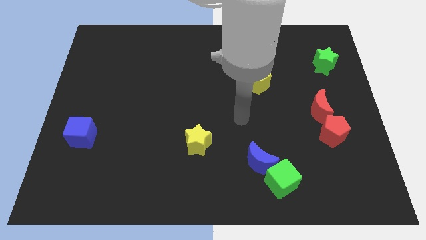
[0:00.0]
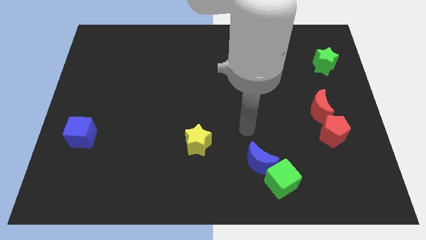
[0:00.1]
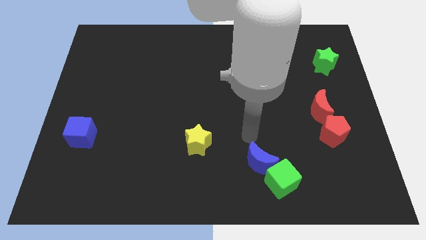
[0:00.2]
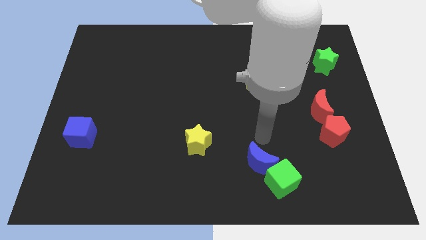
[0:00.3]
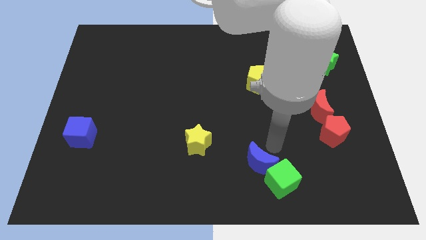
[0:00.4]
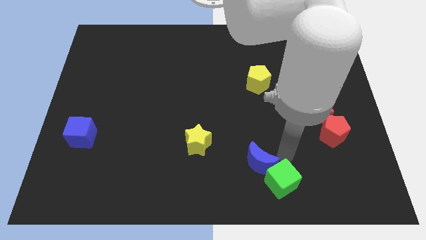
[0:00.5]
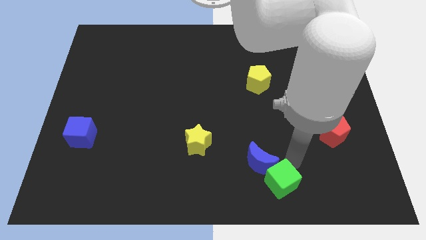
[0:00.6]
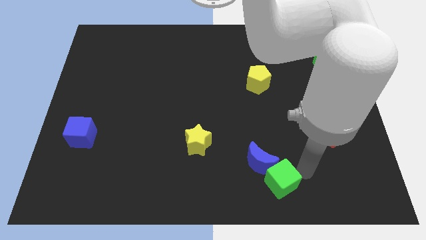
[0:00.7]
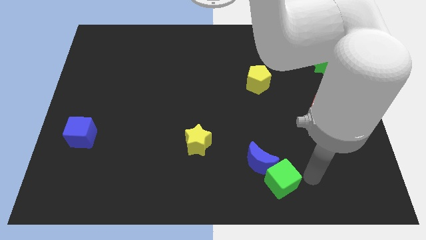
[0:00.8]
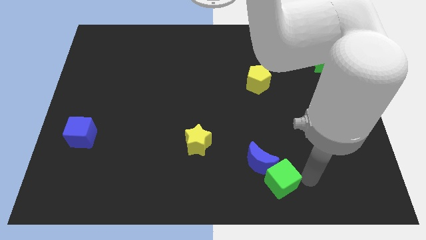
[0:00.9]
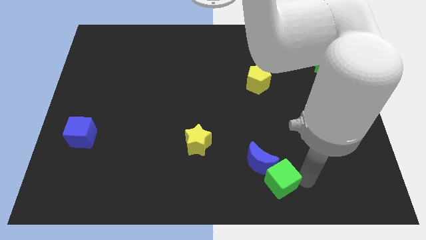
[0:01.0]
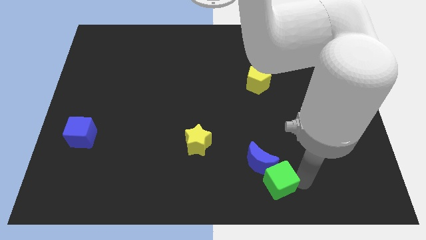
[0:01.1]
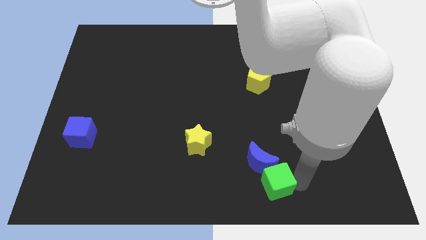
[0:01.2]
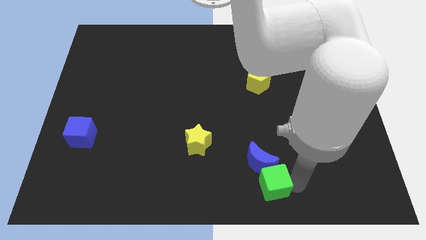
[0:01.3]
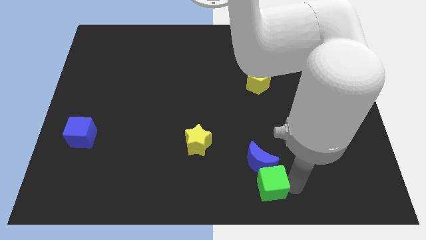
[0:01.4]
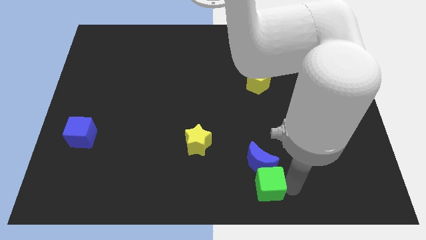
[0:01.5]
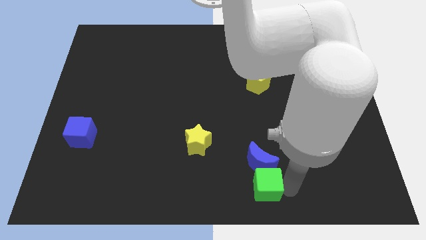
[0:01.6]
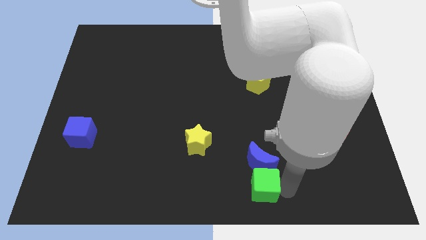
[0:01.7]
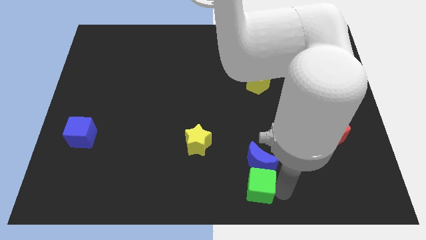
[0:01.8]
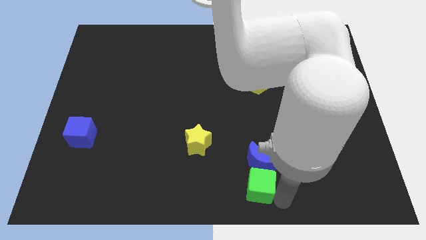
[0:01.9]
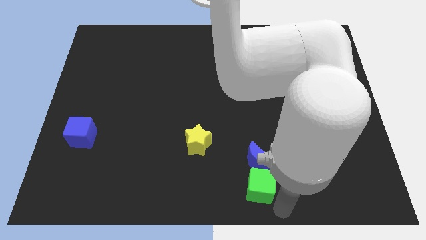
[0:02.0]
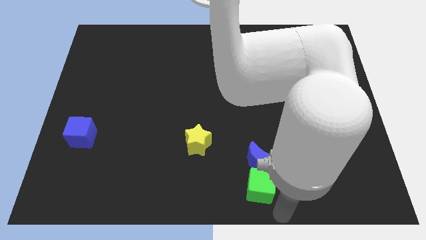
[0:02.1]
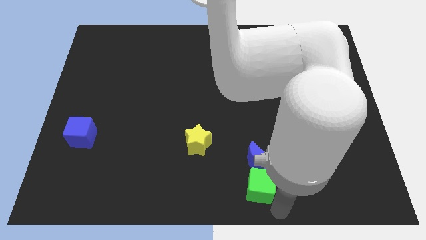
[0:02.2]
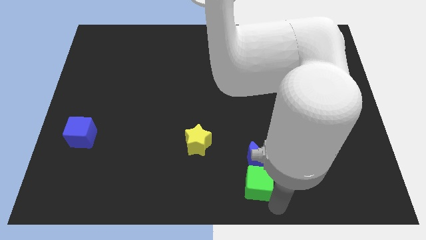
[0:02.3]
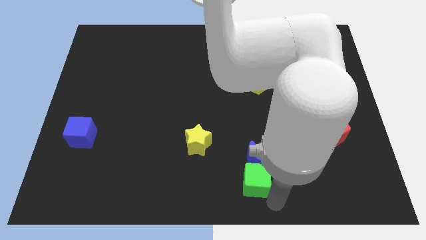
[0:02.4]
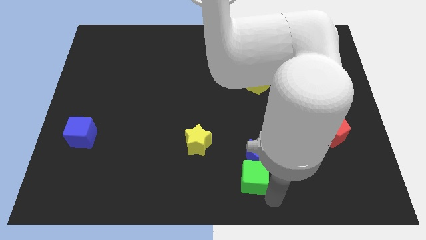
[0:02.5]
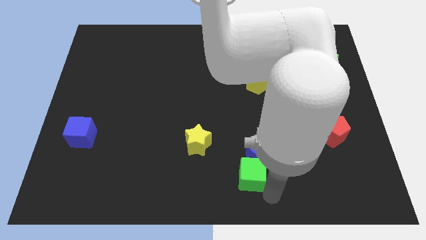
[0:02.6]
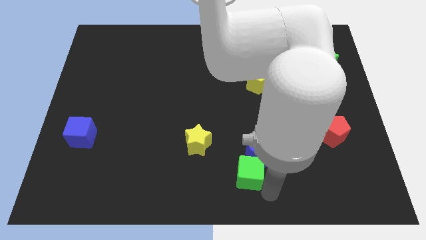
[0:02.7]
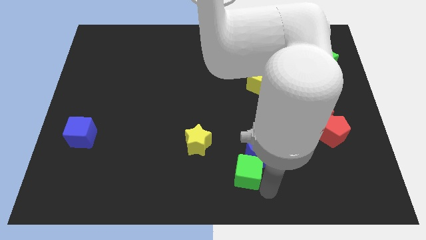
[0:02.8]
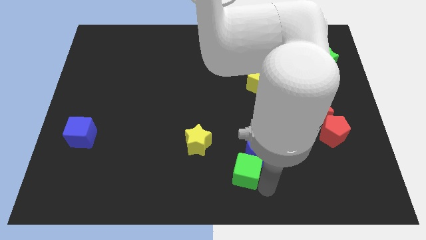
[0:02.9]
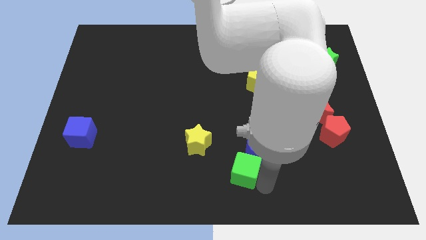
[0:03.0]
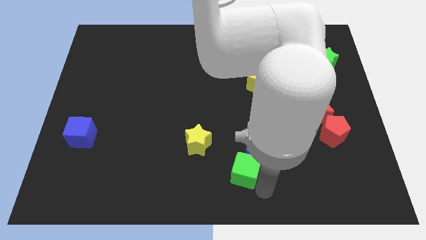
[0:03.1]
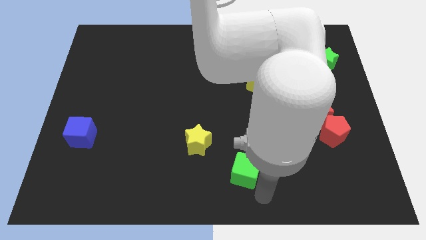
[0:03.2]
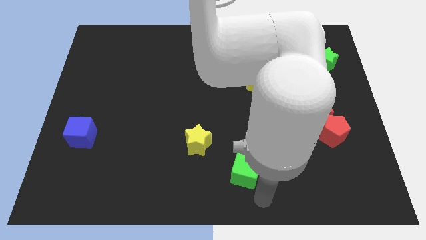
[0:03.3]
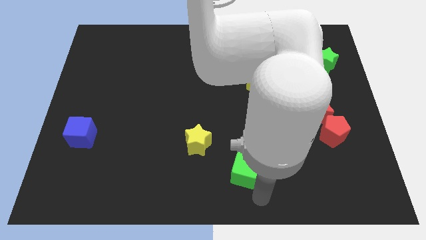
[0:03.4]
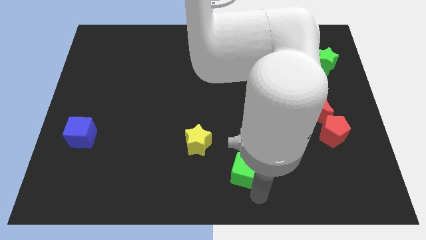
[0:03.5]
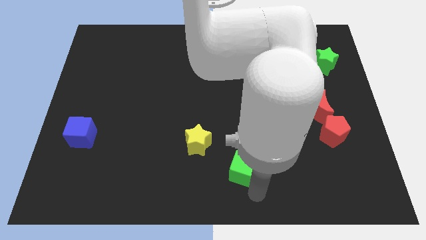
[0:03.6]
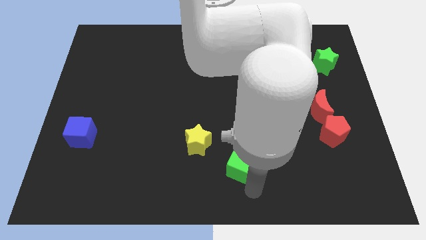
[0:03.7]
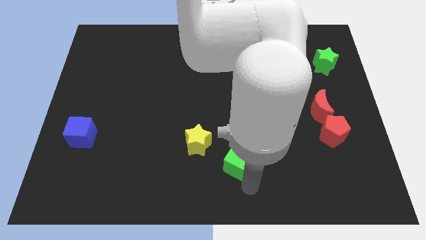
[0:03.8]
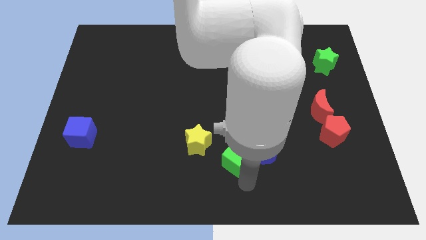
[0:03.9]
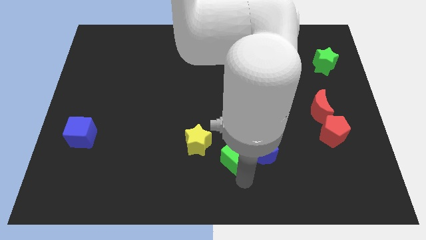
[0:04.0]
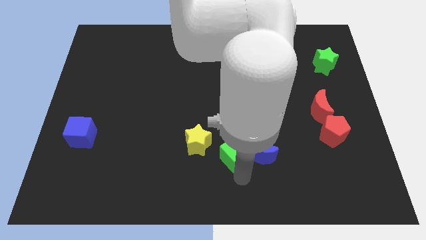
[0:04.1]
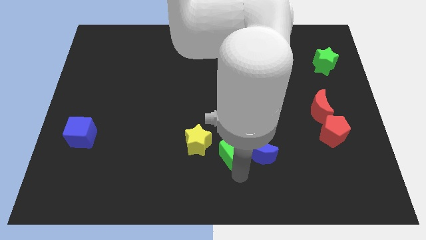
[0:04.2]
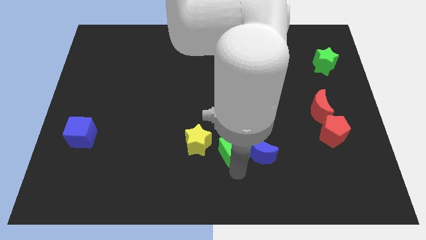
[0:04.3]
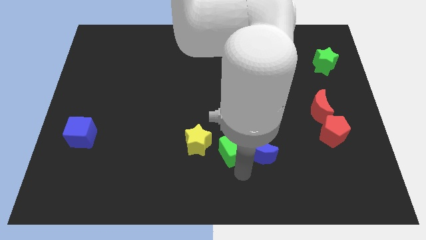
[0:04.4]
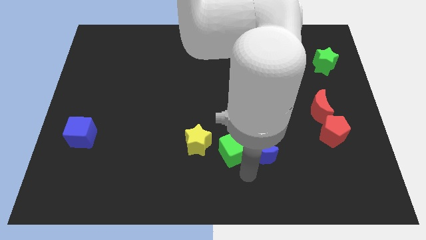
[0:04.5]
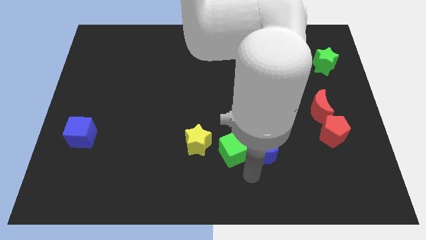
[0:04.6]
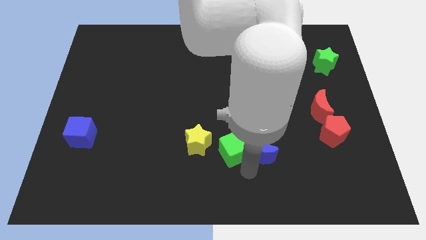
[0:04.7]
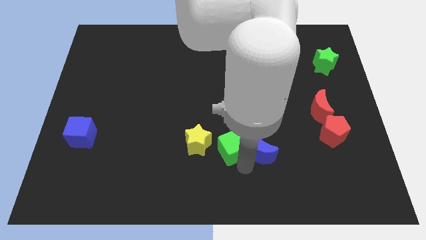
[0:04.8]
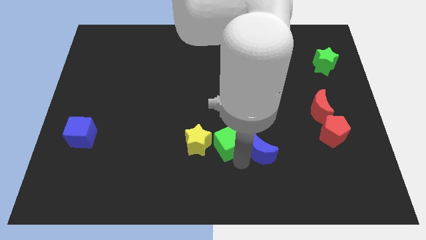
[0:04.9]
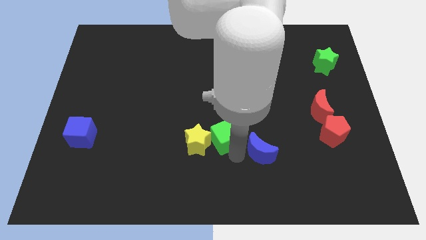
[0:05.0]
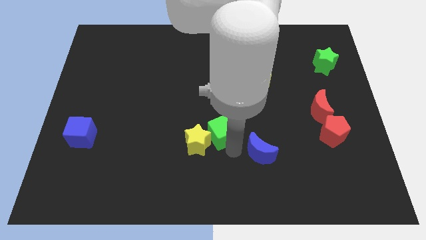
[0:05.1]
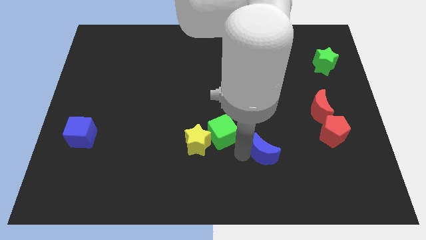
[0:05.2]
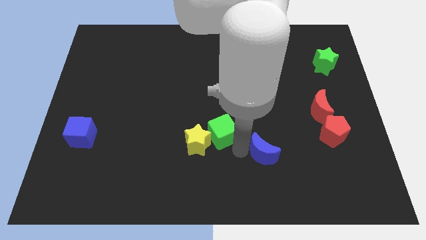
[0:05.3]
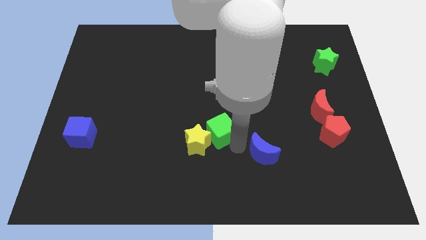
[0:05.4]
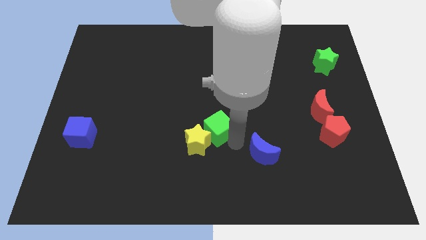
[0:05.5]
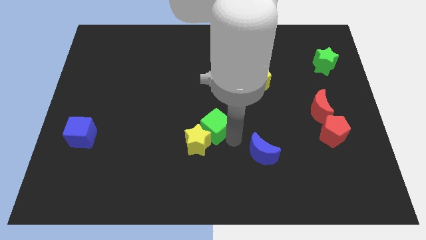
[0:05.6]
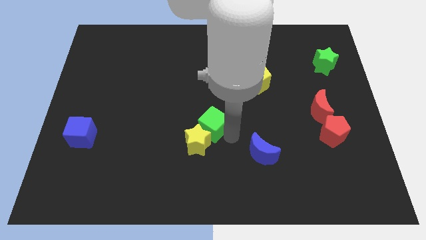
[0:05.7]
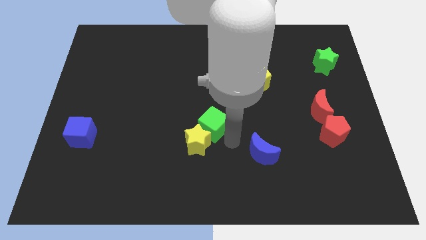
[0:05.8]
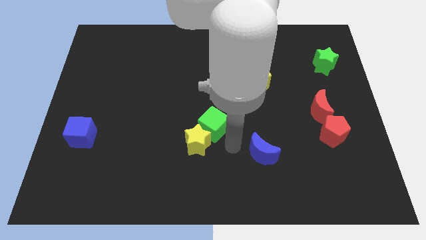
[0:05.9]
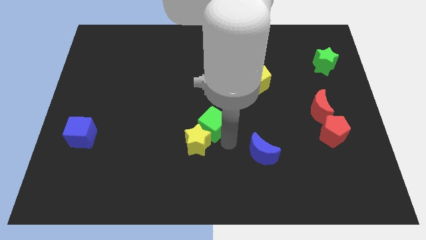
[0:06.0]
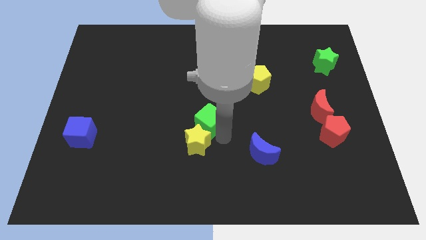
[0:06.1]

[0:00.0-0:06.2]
push the green cube up and then left

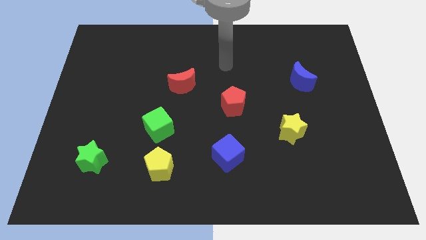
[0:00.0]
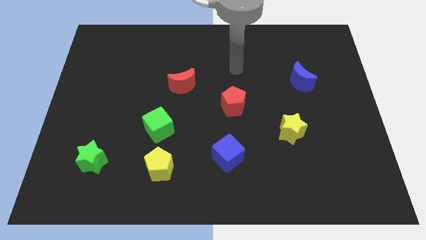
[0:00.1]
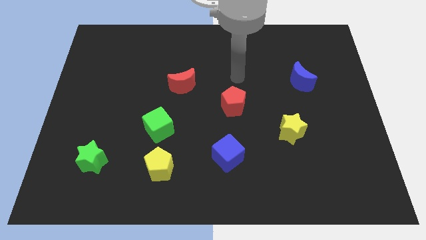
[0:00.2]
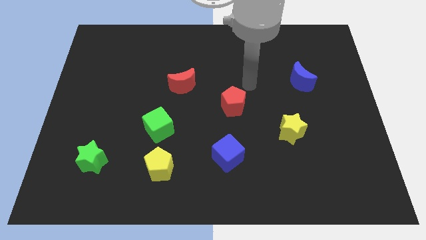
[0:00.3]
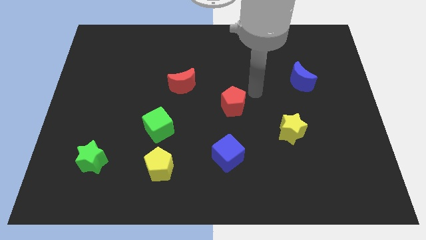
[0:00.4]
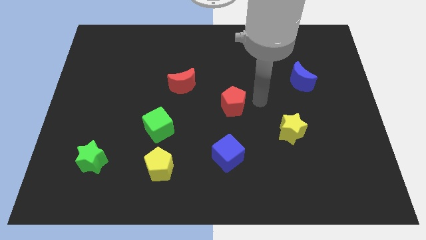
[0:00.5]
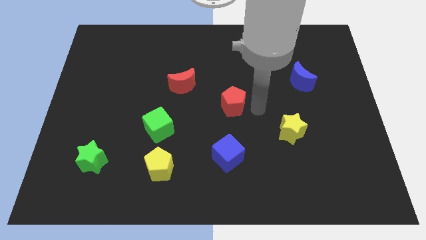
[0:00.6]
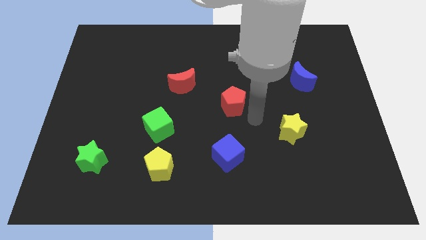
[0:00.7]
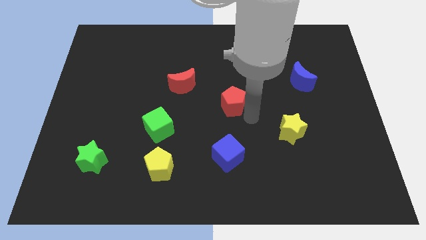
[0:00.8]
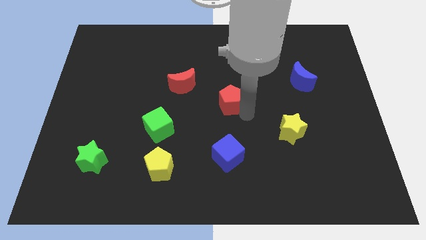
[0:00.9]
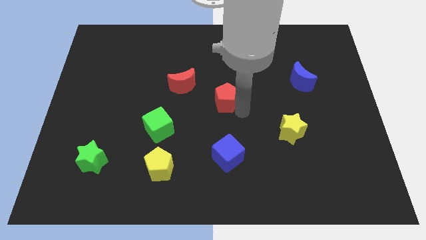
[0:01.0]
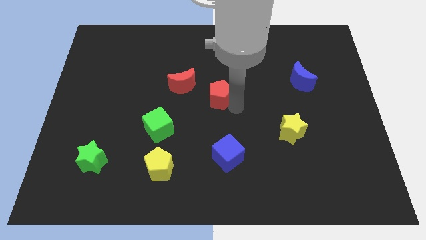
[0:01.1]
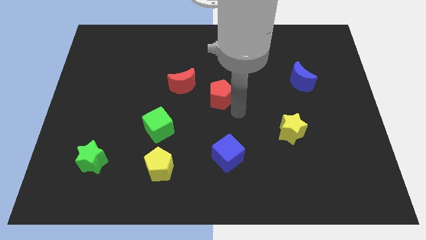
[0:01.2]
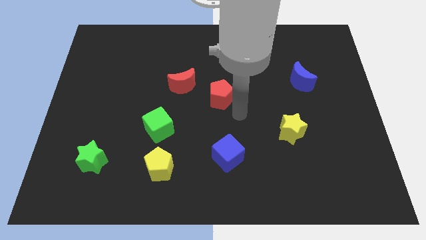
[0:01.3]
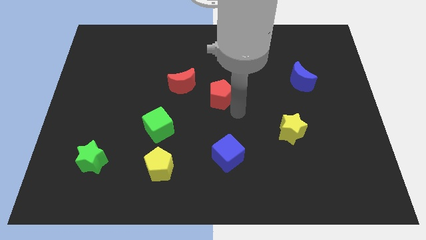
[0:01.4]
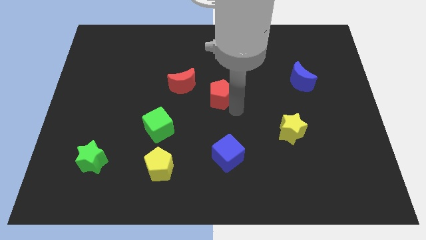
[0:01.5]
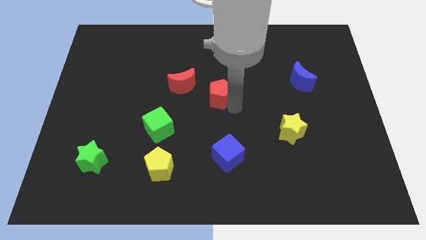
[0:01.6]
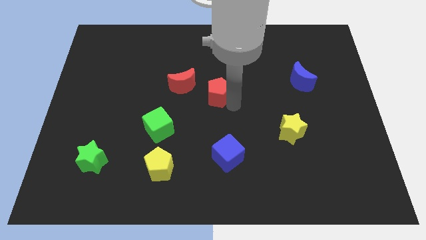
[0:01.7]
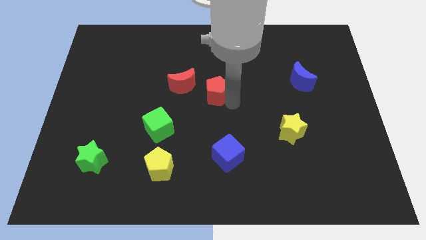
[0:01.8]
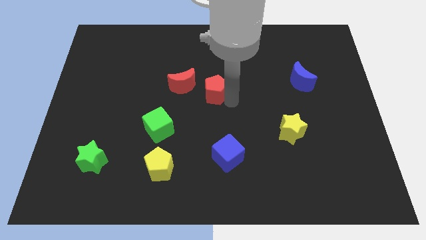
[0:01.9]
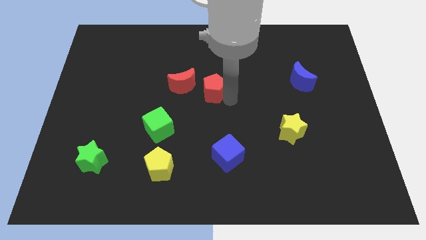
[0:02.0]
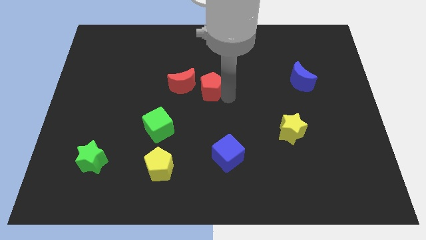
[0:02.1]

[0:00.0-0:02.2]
move the red pentagon up and left diagonally somewhat
